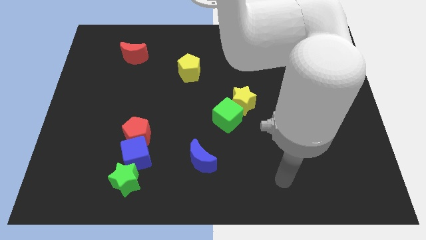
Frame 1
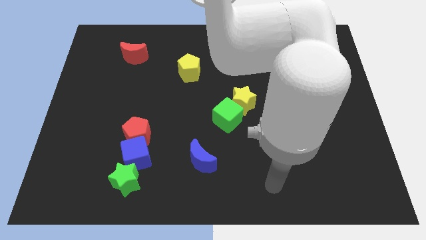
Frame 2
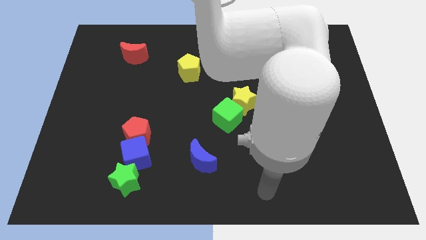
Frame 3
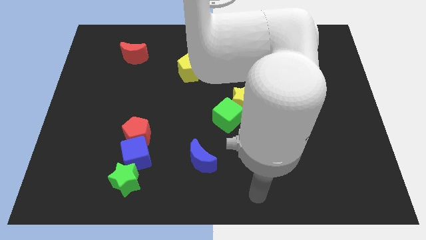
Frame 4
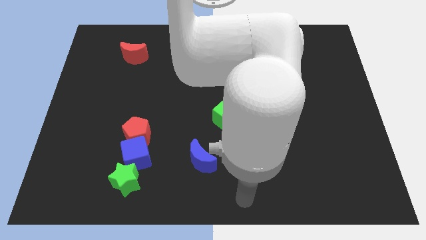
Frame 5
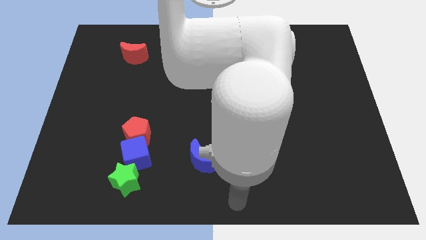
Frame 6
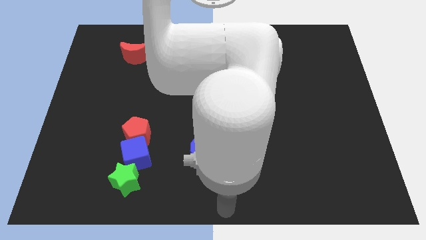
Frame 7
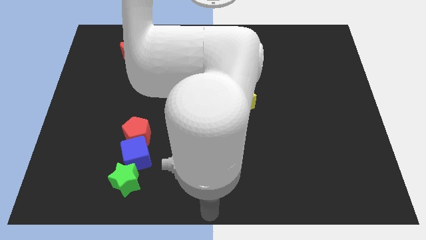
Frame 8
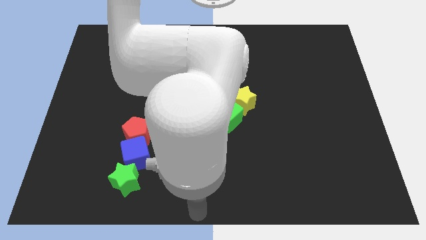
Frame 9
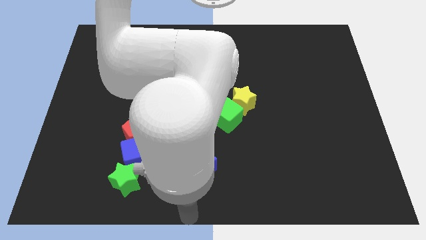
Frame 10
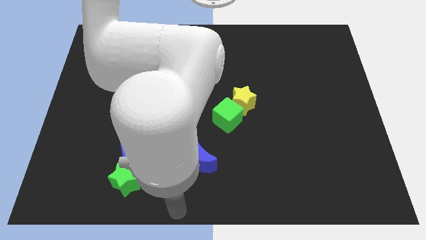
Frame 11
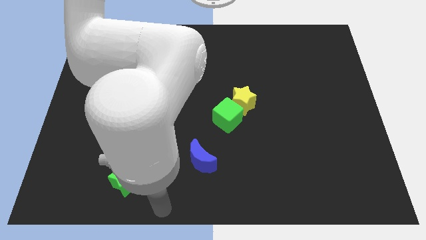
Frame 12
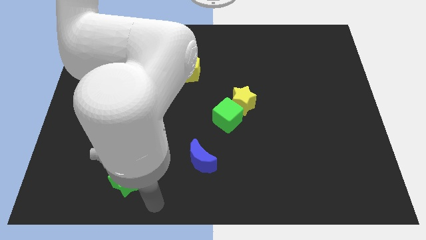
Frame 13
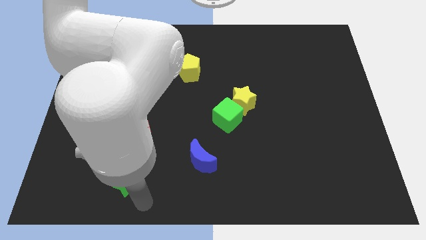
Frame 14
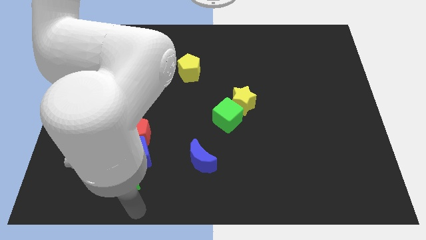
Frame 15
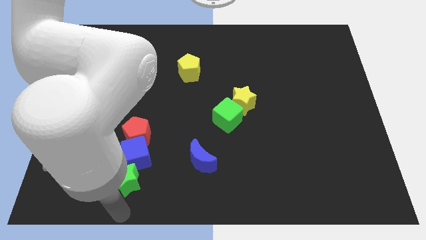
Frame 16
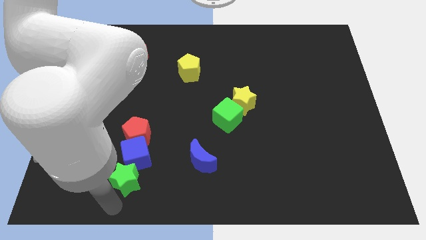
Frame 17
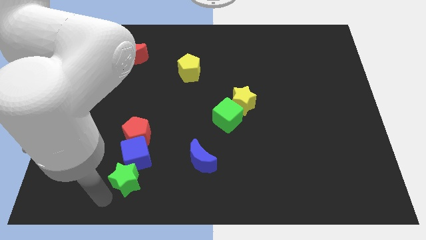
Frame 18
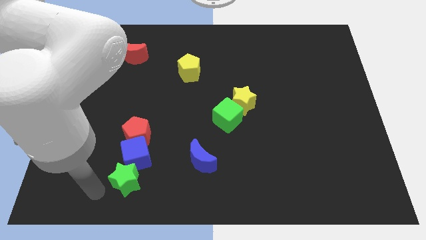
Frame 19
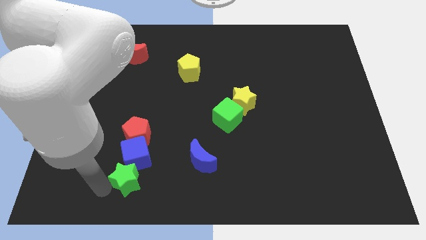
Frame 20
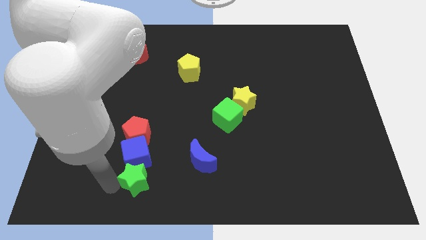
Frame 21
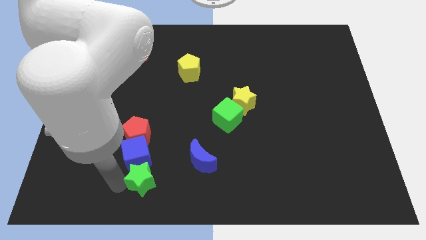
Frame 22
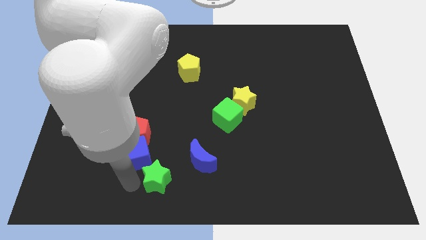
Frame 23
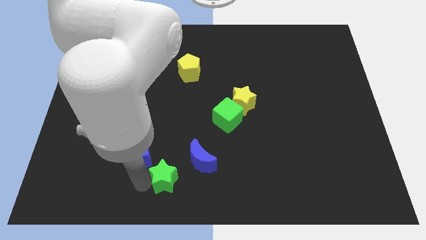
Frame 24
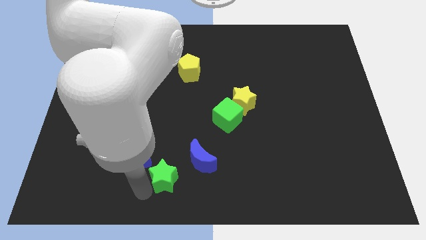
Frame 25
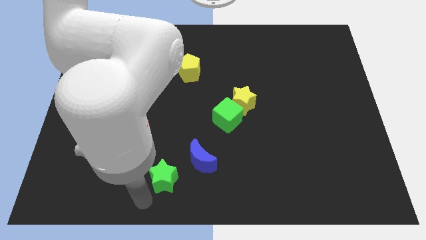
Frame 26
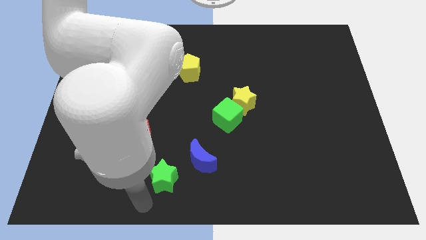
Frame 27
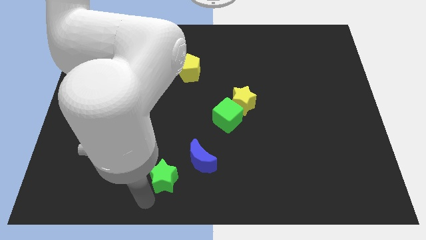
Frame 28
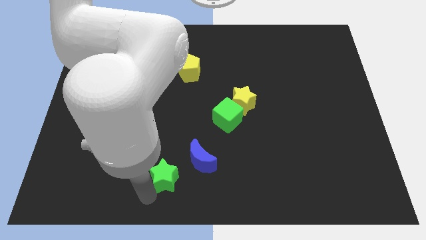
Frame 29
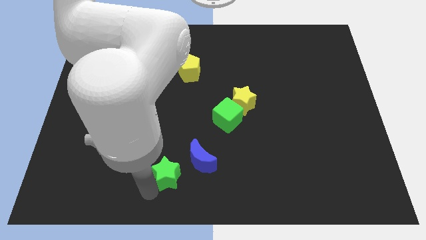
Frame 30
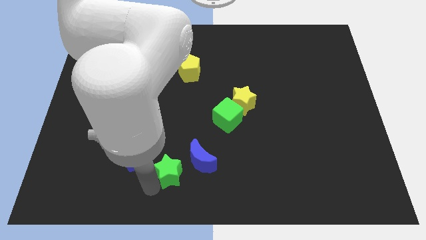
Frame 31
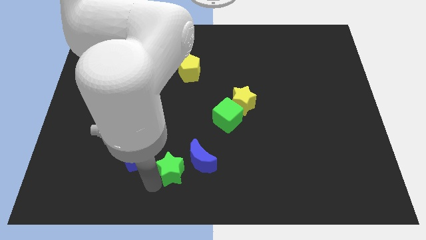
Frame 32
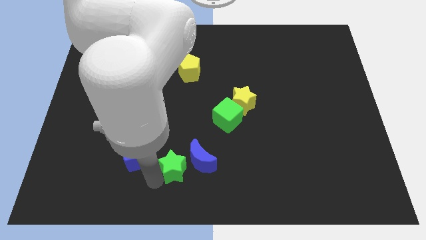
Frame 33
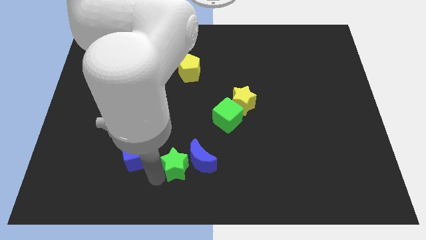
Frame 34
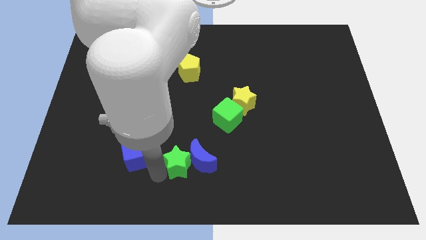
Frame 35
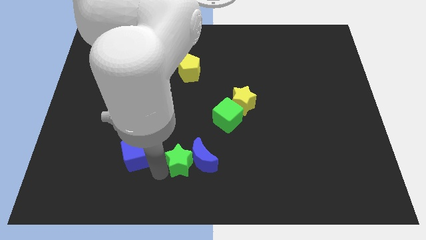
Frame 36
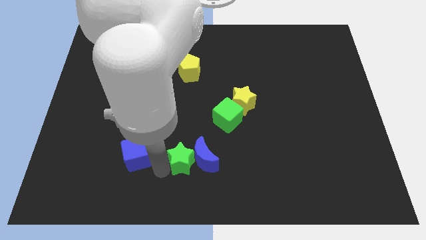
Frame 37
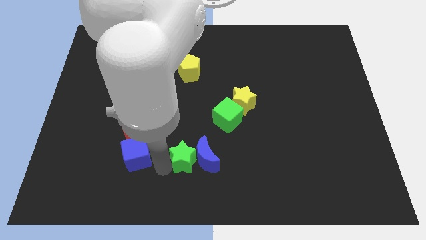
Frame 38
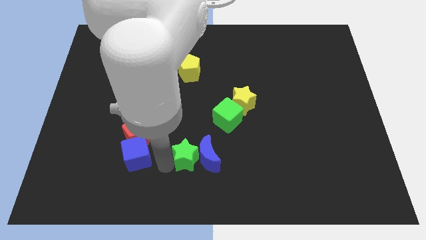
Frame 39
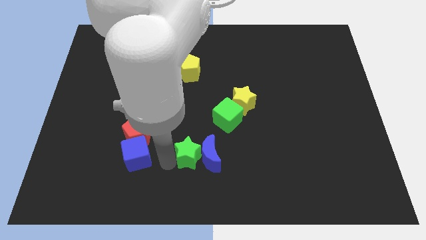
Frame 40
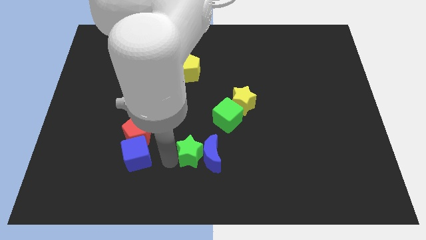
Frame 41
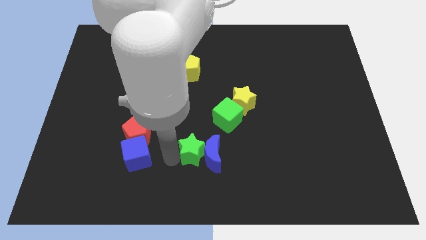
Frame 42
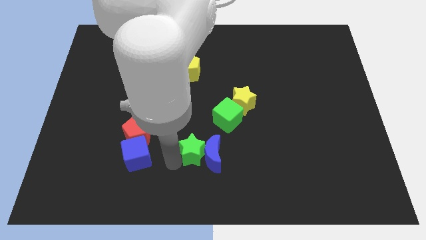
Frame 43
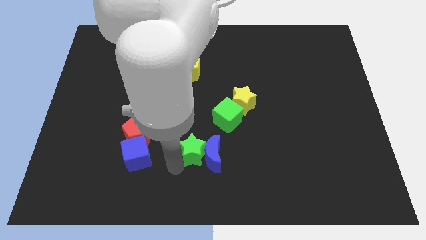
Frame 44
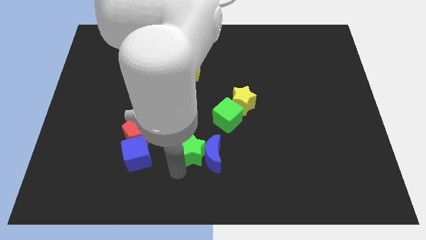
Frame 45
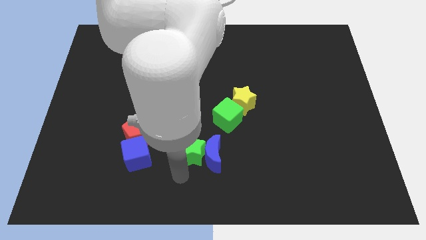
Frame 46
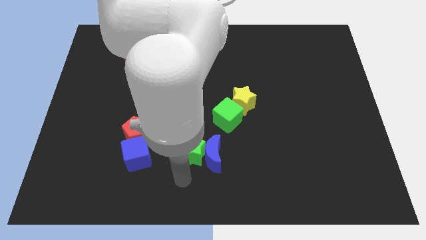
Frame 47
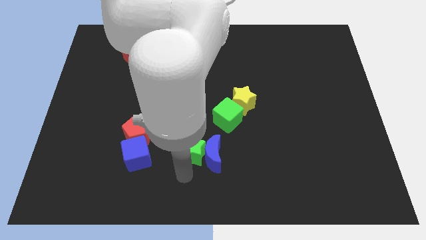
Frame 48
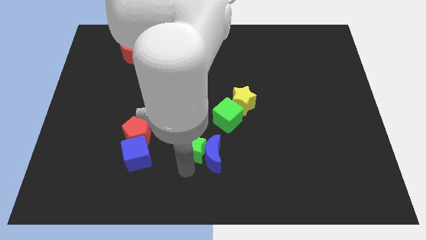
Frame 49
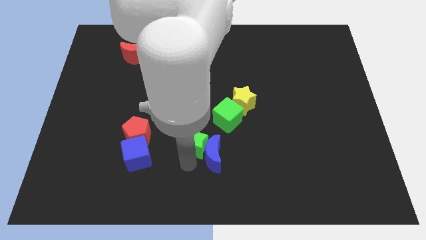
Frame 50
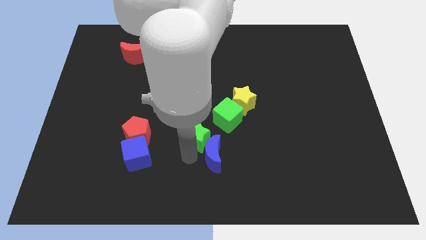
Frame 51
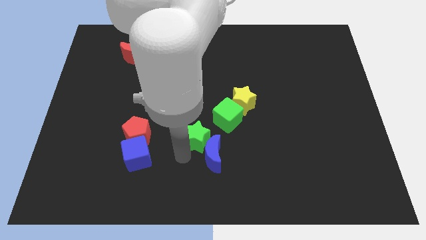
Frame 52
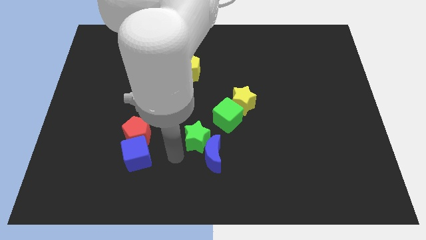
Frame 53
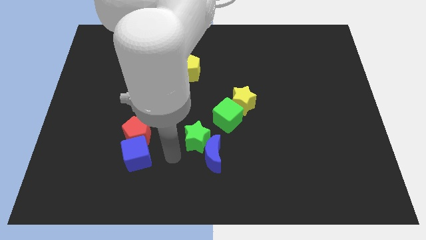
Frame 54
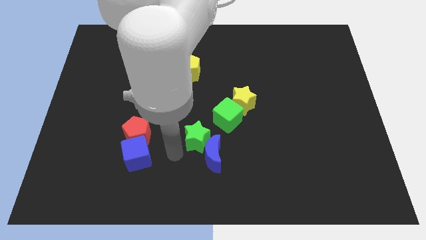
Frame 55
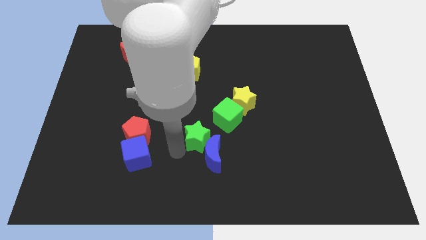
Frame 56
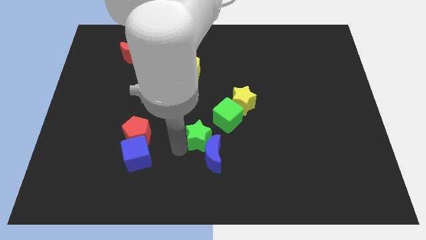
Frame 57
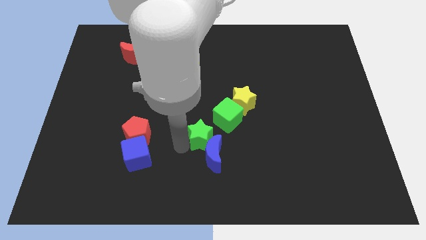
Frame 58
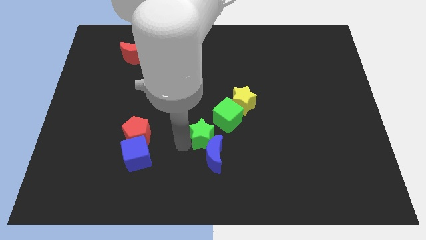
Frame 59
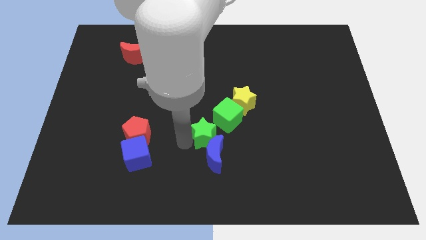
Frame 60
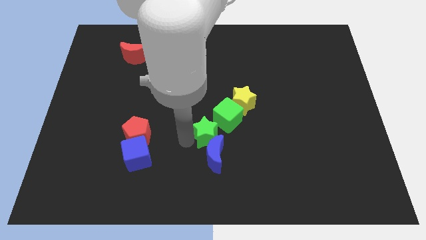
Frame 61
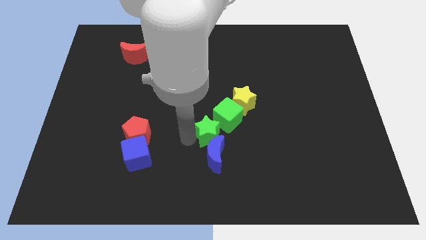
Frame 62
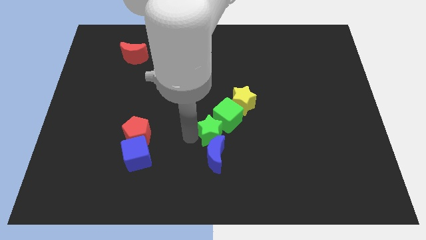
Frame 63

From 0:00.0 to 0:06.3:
push the green star close to the green cube

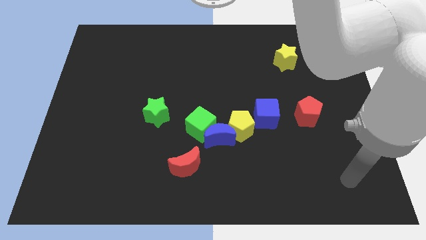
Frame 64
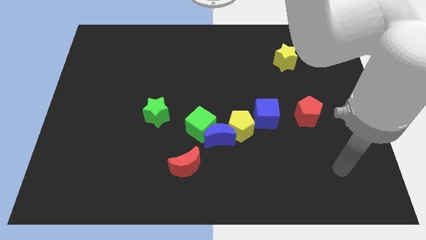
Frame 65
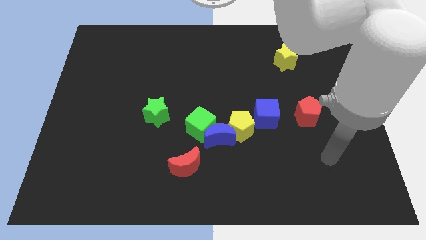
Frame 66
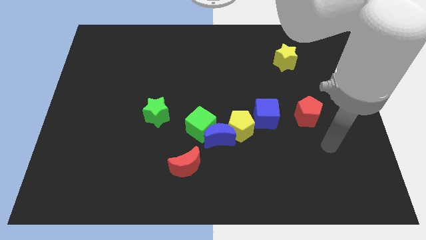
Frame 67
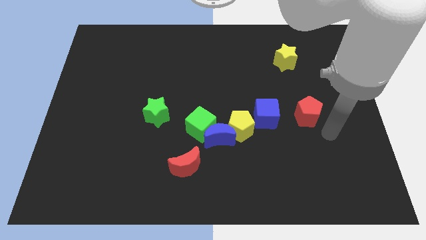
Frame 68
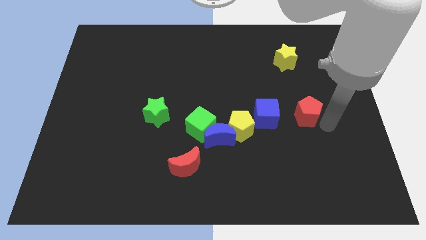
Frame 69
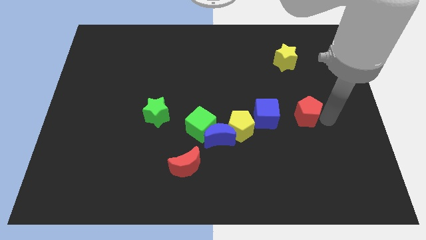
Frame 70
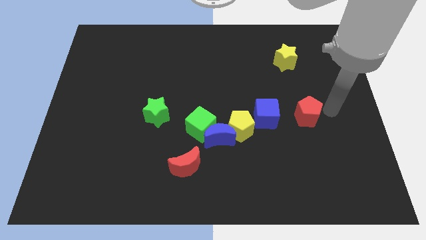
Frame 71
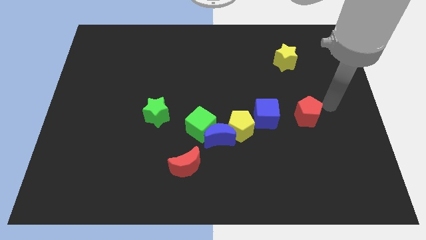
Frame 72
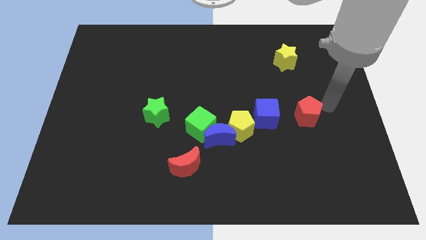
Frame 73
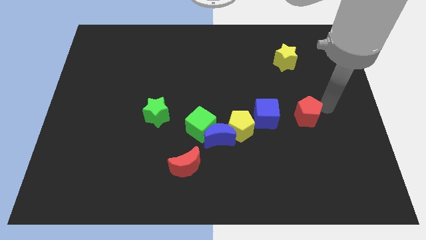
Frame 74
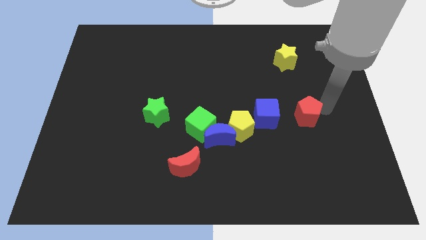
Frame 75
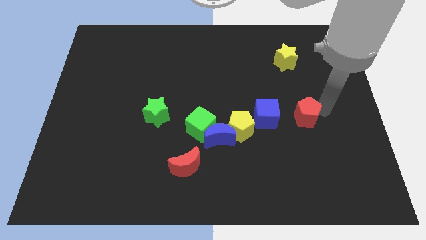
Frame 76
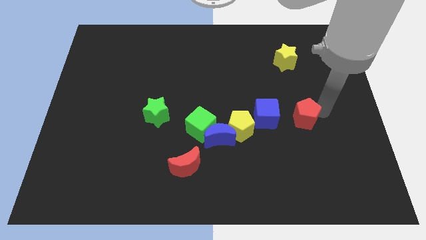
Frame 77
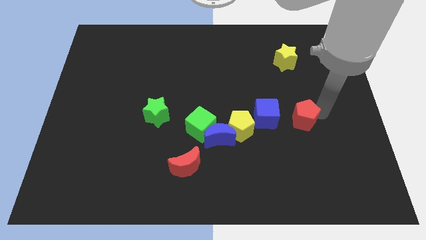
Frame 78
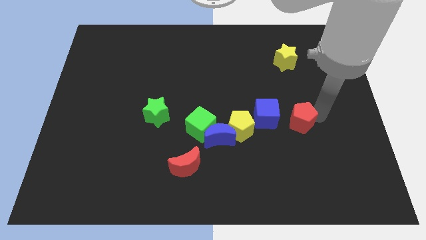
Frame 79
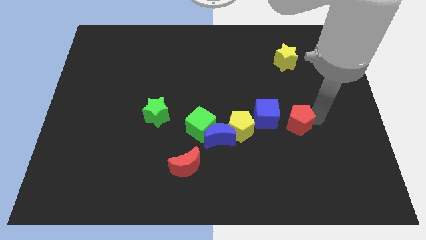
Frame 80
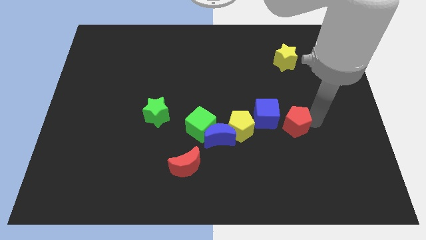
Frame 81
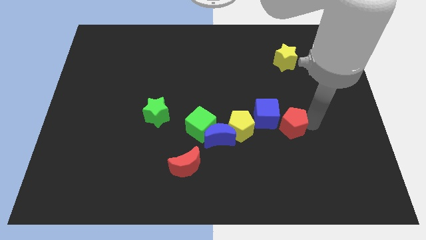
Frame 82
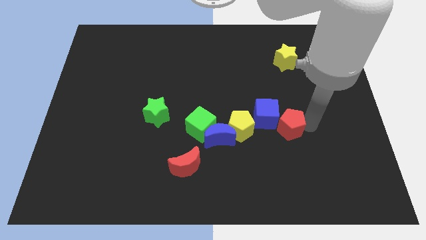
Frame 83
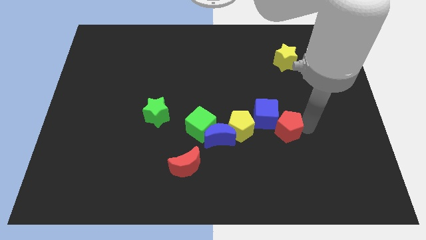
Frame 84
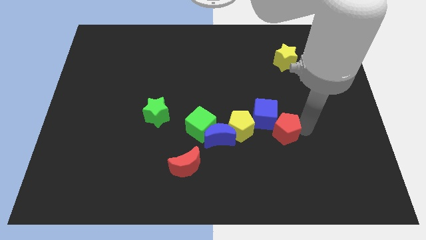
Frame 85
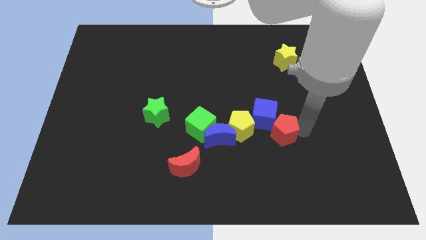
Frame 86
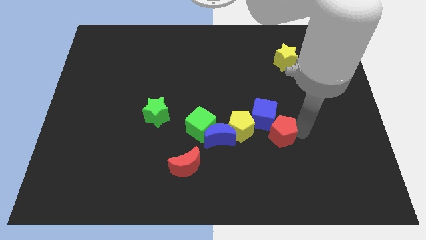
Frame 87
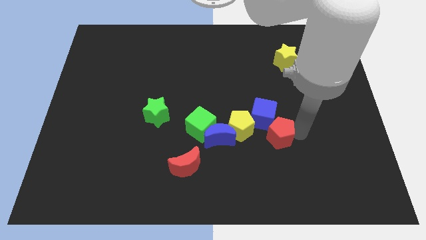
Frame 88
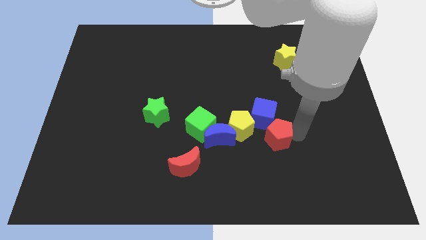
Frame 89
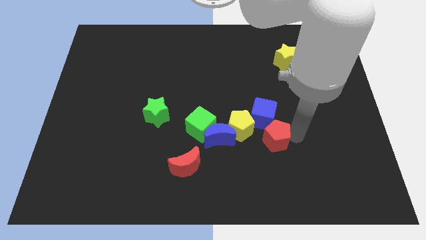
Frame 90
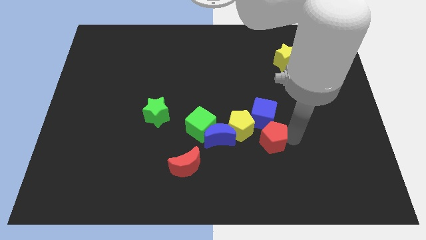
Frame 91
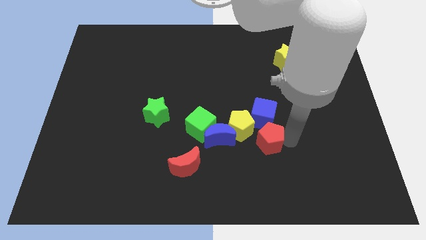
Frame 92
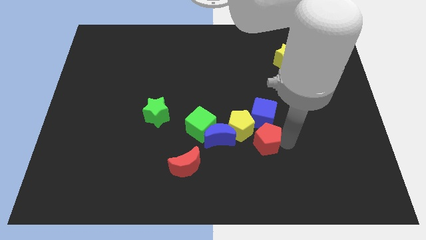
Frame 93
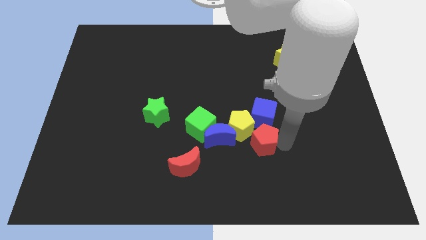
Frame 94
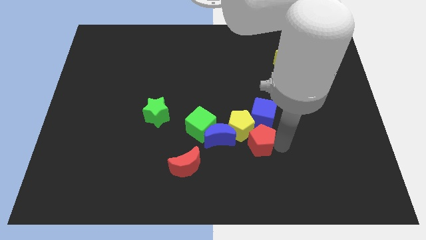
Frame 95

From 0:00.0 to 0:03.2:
push the red pentagon close to the yellow pentagon
